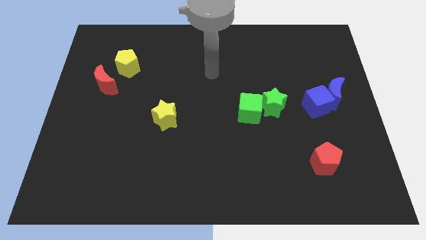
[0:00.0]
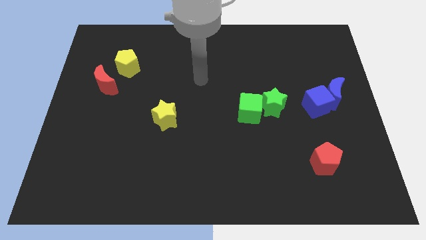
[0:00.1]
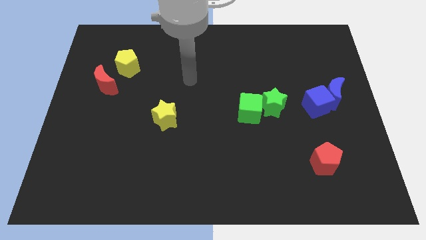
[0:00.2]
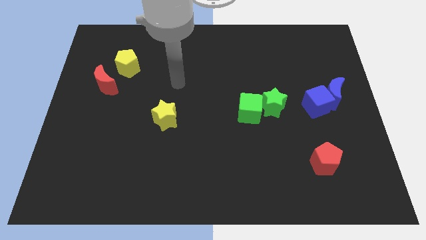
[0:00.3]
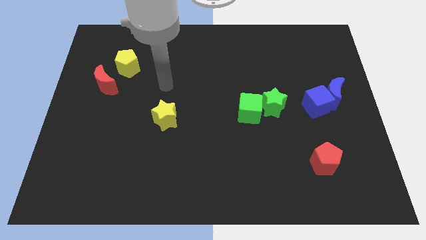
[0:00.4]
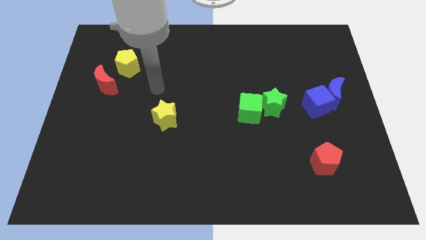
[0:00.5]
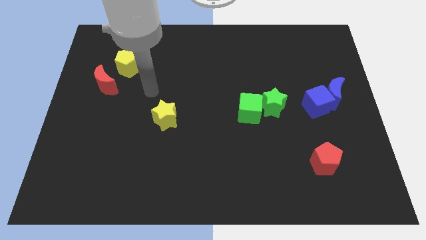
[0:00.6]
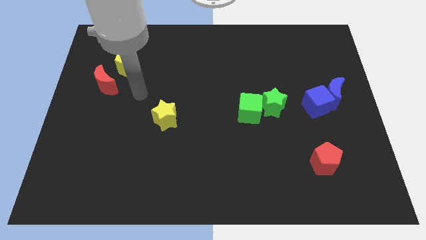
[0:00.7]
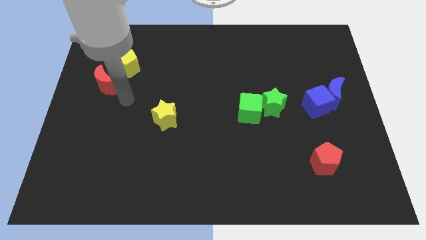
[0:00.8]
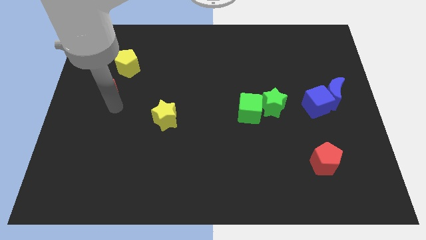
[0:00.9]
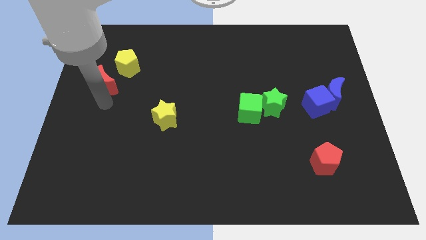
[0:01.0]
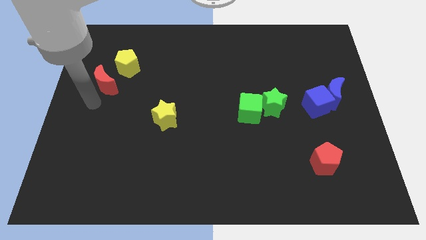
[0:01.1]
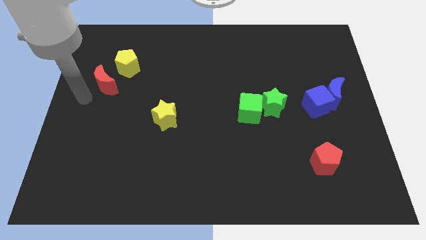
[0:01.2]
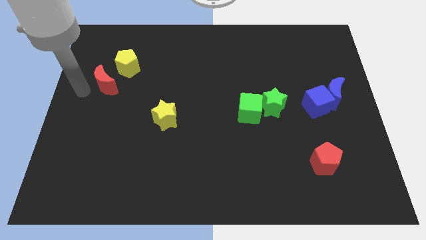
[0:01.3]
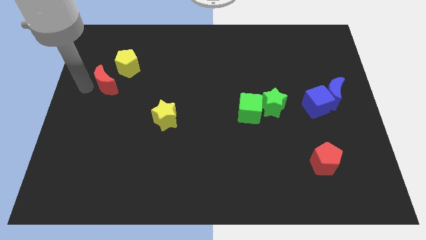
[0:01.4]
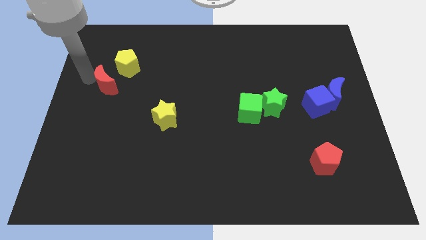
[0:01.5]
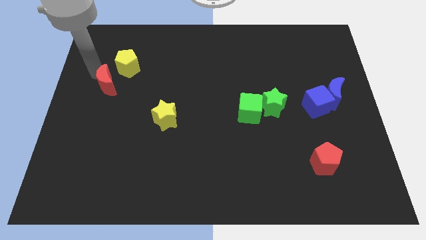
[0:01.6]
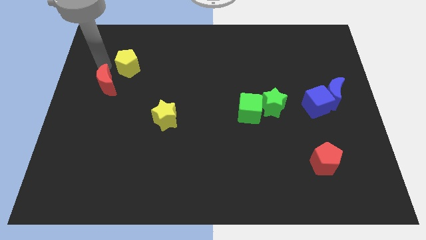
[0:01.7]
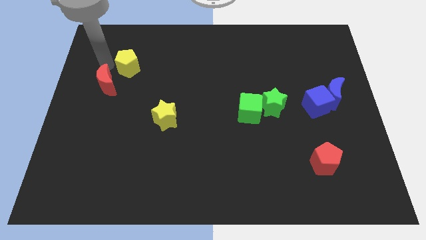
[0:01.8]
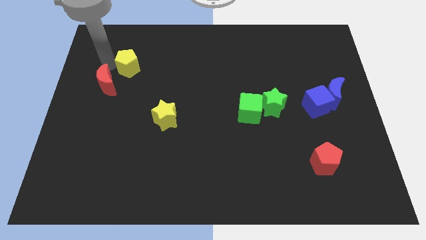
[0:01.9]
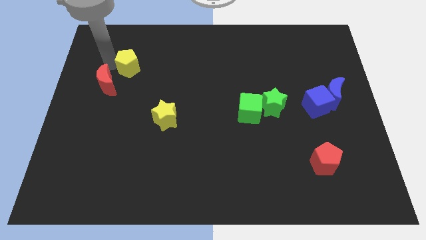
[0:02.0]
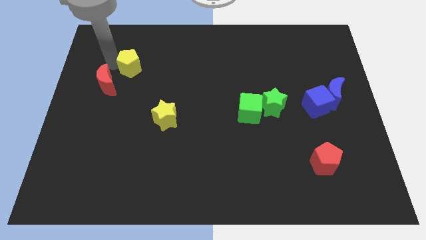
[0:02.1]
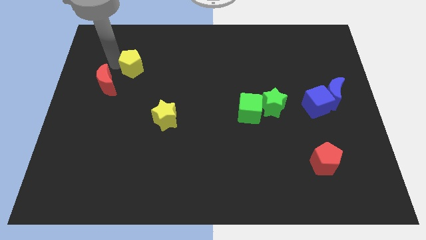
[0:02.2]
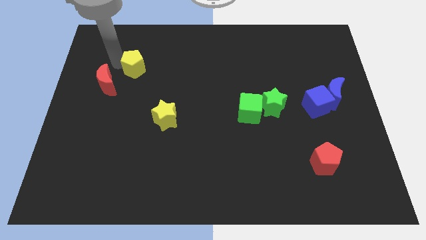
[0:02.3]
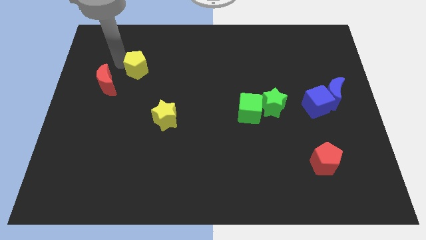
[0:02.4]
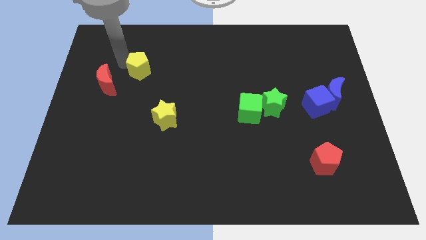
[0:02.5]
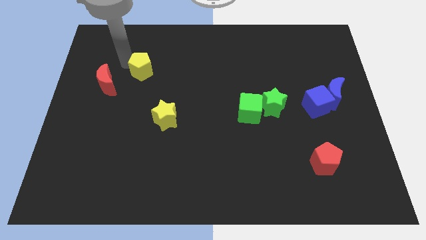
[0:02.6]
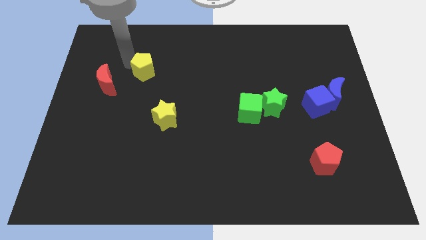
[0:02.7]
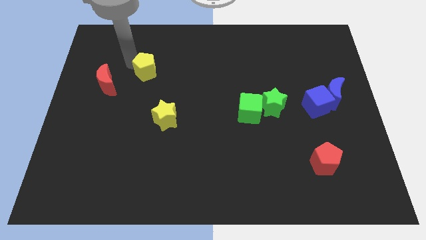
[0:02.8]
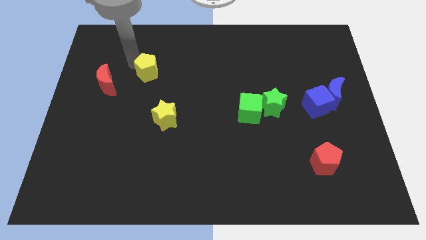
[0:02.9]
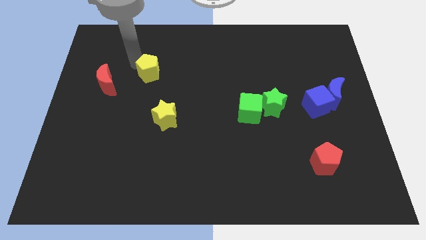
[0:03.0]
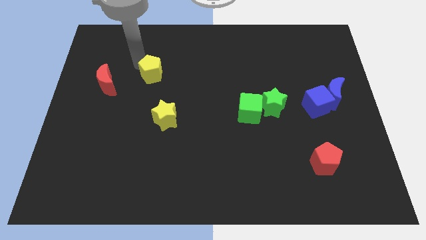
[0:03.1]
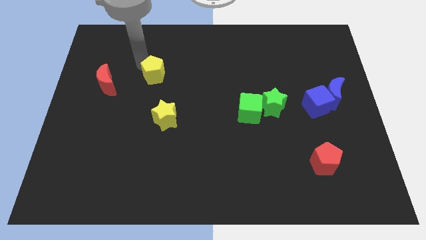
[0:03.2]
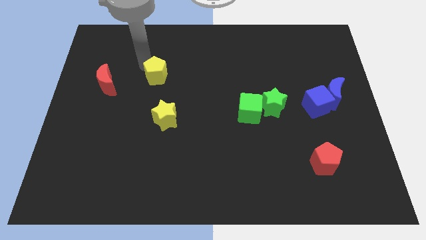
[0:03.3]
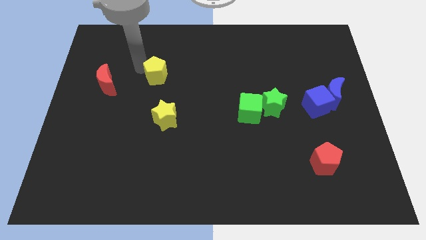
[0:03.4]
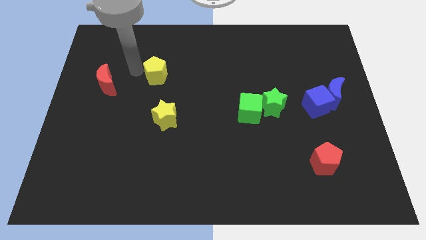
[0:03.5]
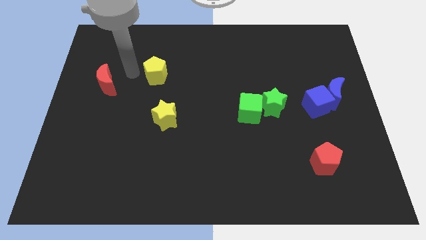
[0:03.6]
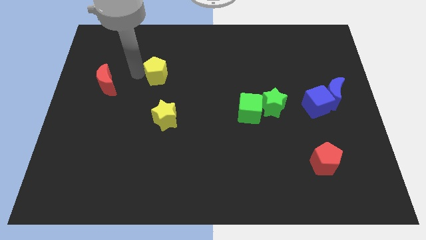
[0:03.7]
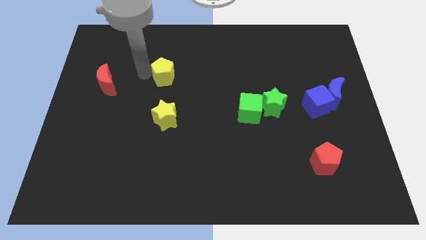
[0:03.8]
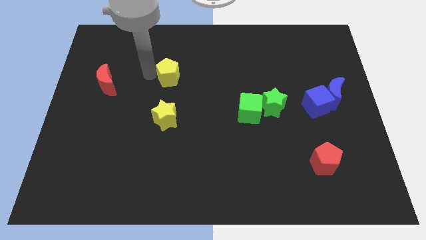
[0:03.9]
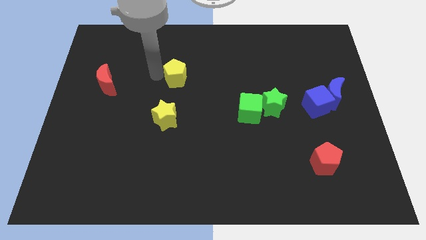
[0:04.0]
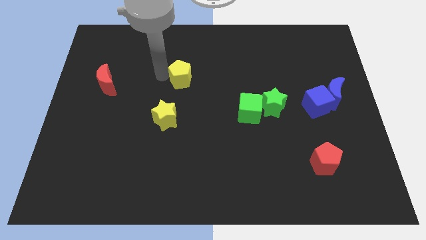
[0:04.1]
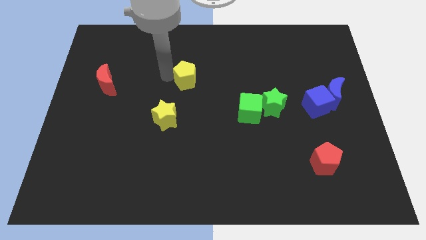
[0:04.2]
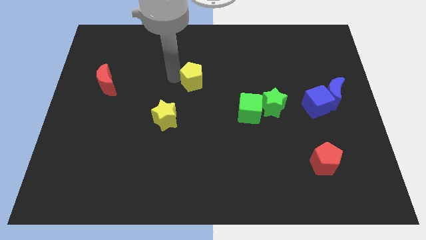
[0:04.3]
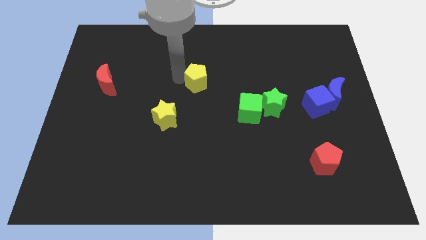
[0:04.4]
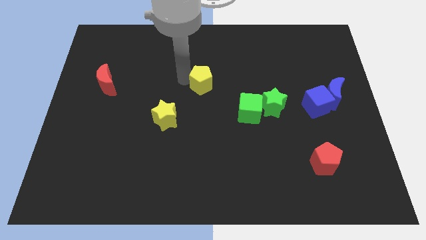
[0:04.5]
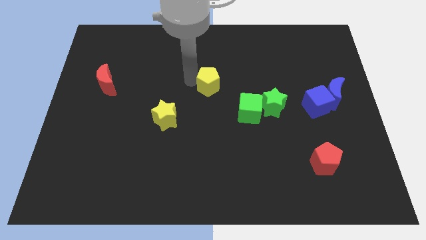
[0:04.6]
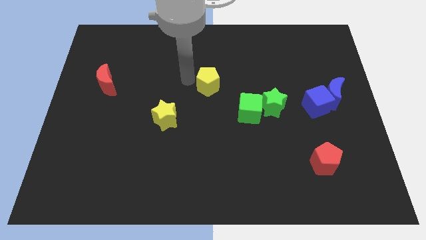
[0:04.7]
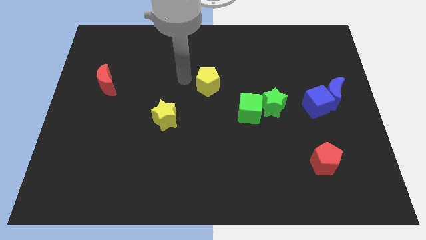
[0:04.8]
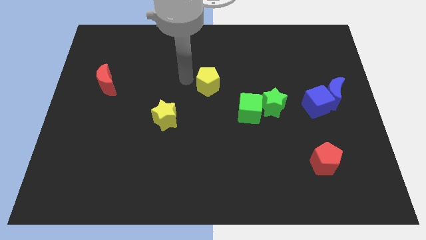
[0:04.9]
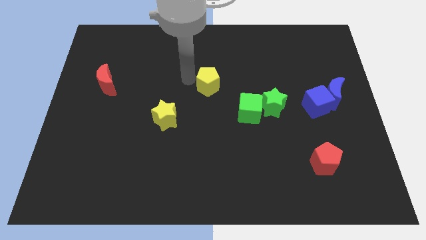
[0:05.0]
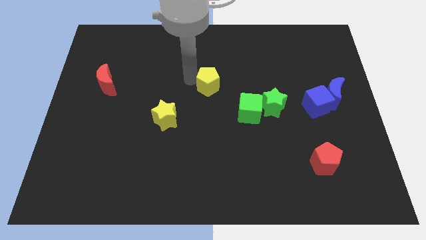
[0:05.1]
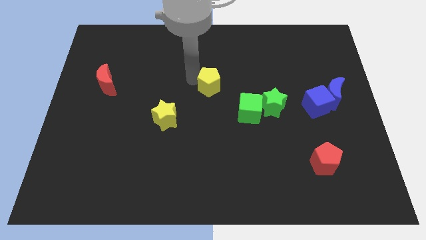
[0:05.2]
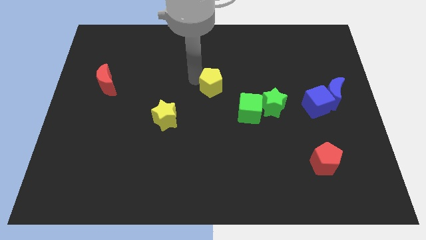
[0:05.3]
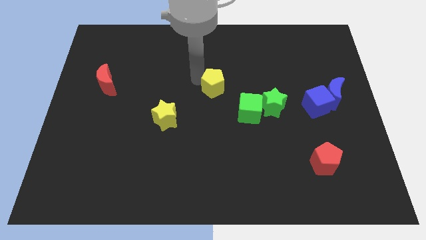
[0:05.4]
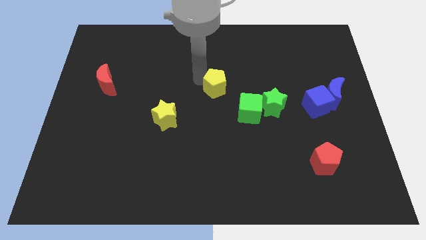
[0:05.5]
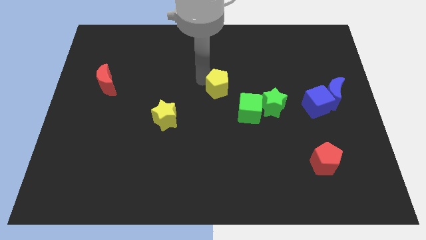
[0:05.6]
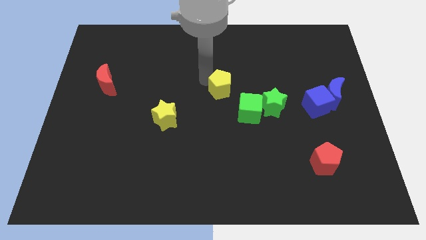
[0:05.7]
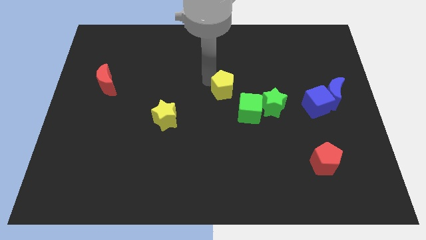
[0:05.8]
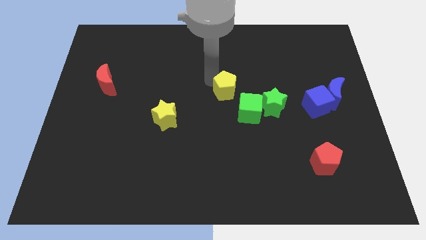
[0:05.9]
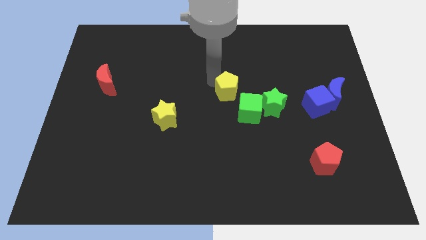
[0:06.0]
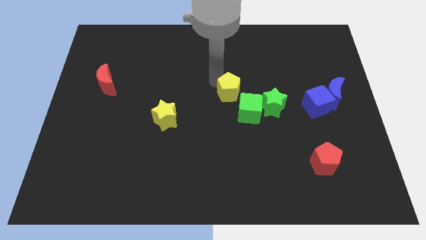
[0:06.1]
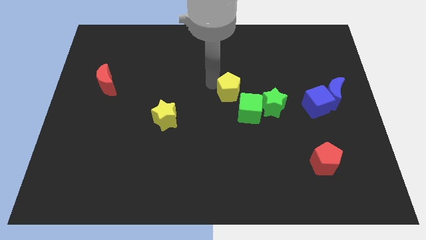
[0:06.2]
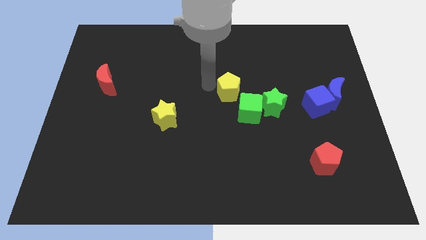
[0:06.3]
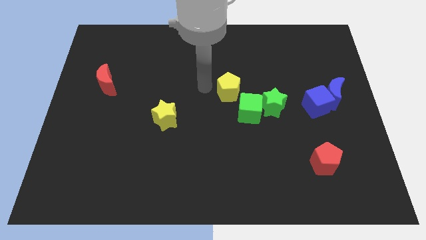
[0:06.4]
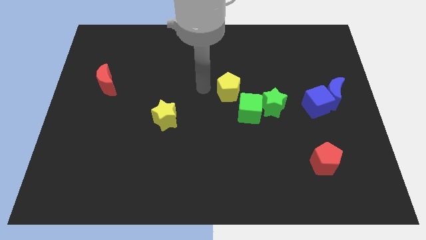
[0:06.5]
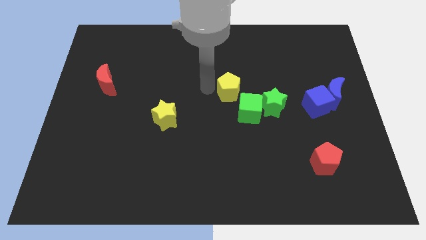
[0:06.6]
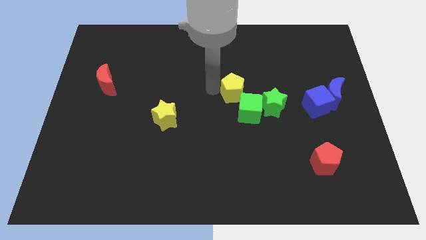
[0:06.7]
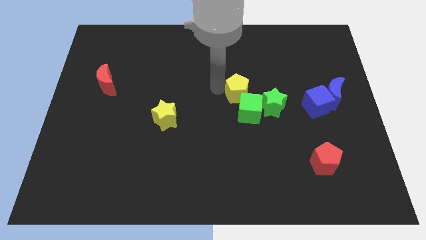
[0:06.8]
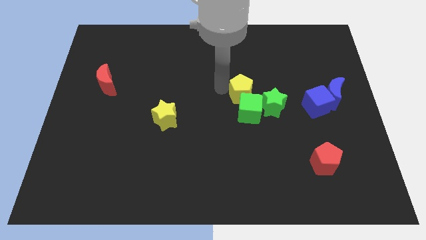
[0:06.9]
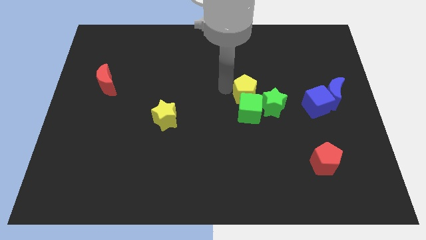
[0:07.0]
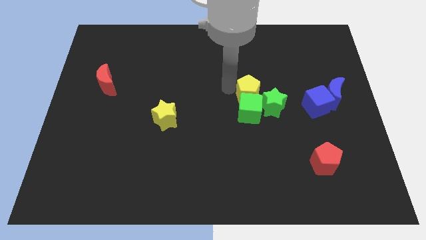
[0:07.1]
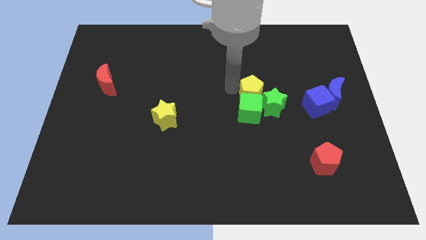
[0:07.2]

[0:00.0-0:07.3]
put the yellow pentagon next to the green star

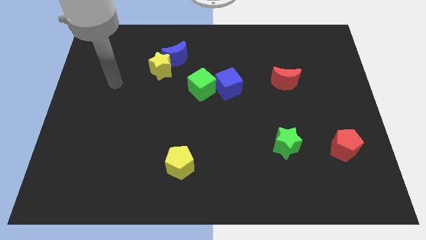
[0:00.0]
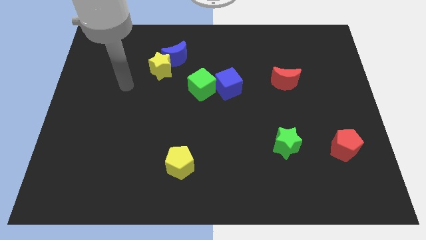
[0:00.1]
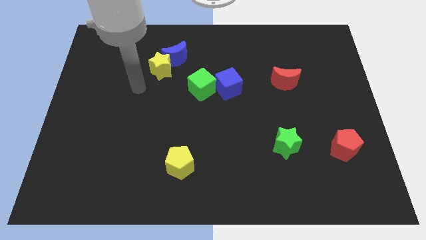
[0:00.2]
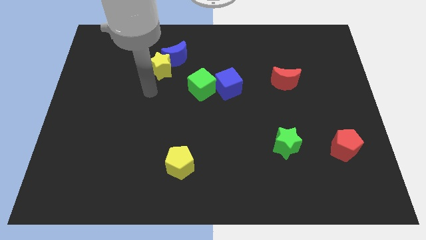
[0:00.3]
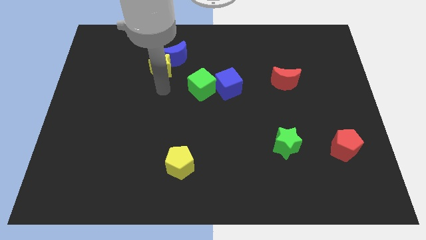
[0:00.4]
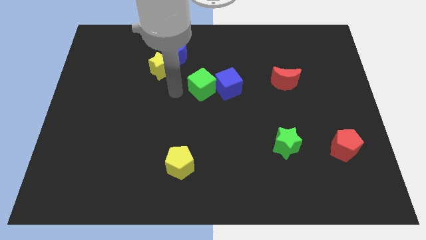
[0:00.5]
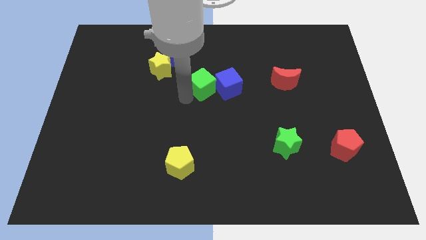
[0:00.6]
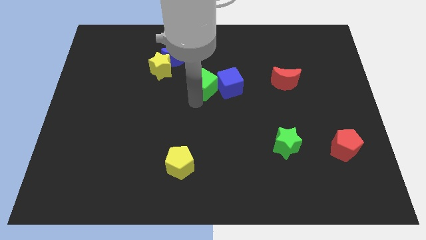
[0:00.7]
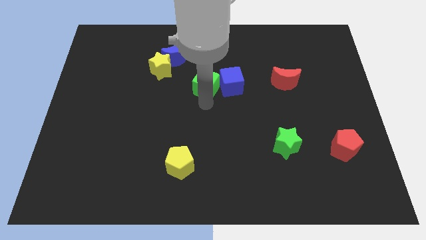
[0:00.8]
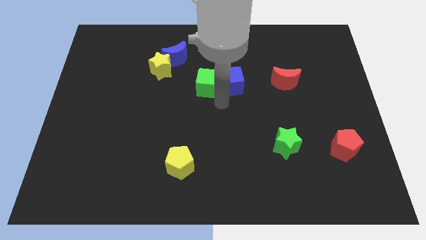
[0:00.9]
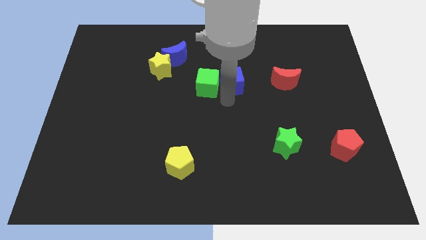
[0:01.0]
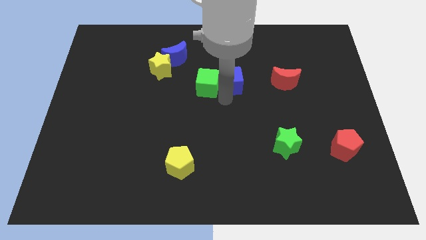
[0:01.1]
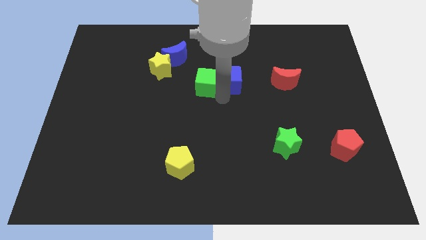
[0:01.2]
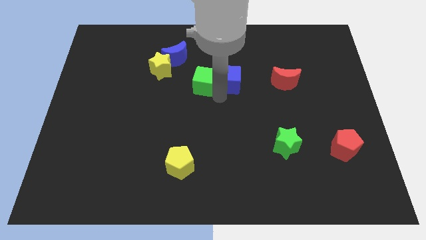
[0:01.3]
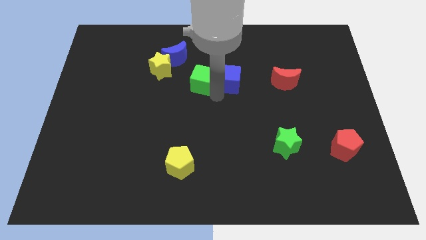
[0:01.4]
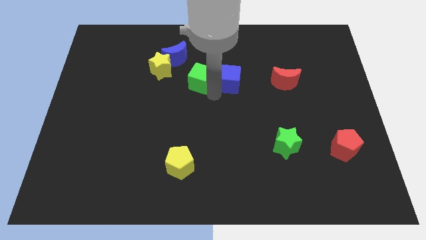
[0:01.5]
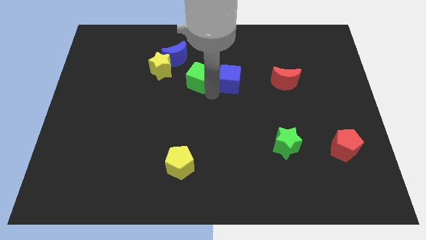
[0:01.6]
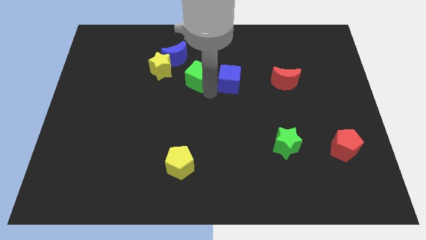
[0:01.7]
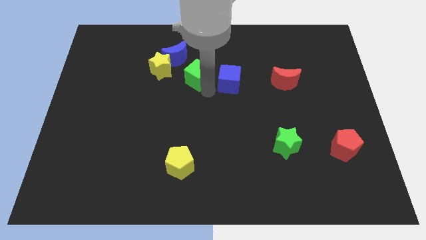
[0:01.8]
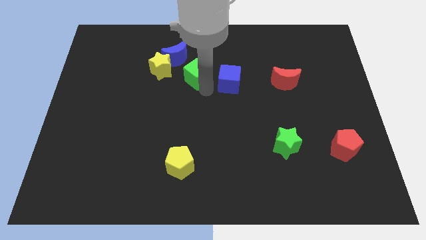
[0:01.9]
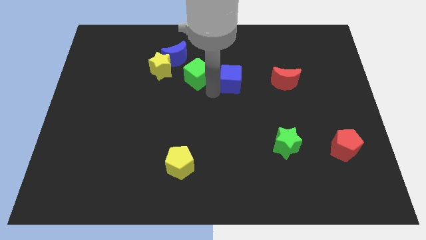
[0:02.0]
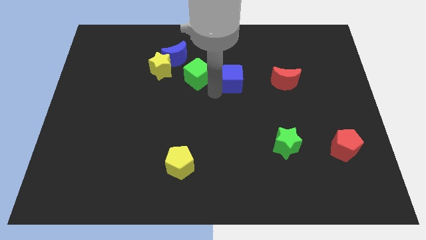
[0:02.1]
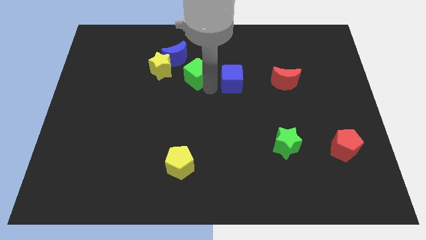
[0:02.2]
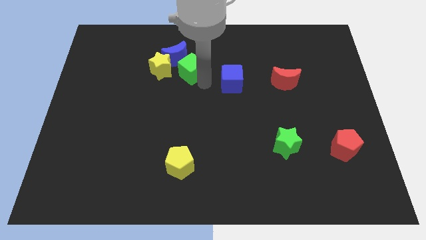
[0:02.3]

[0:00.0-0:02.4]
move the green cube towards the blue moon
